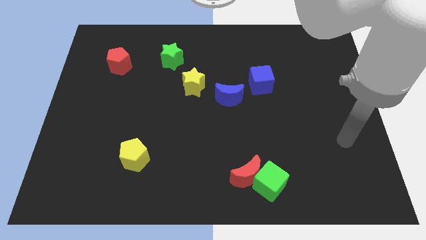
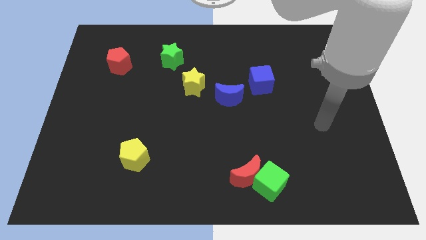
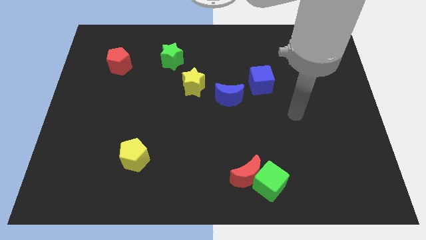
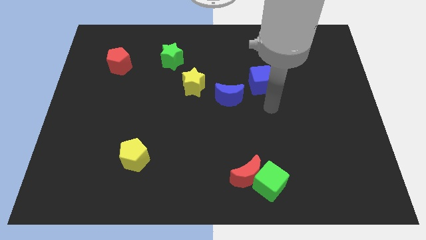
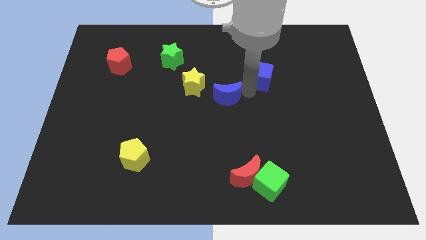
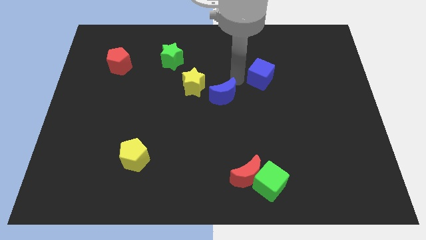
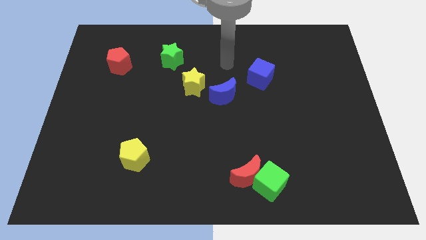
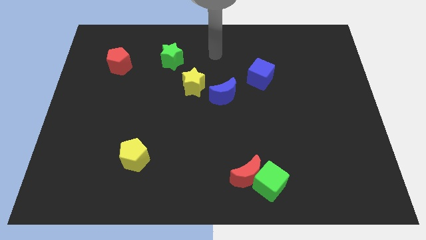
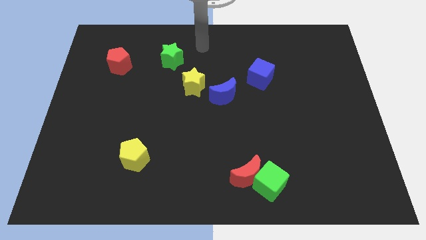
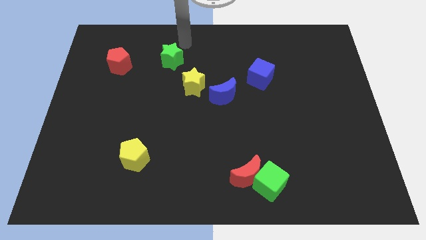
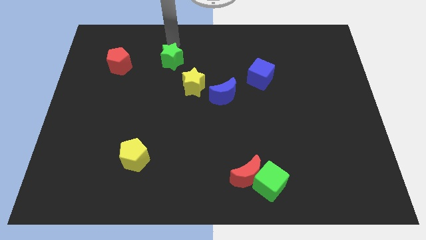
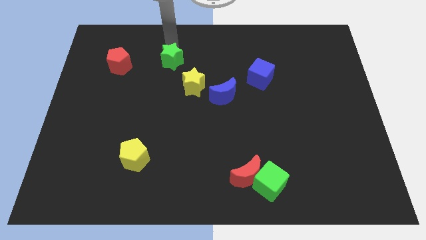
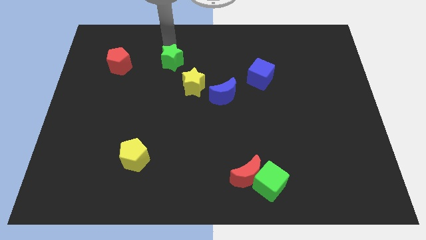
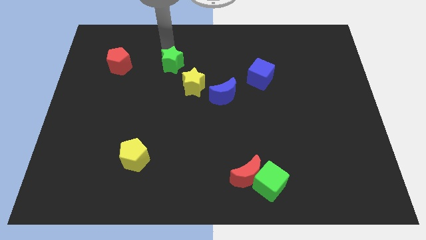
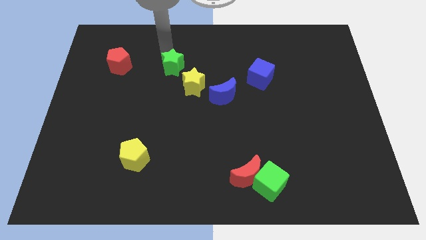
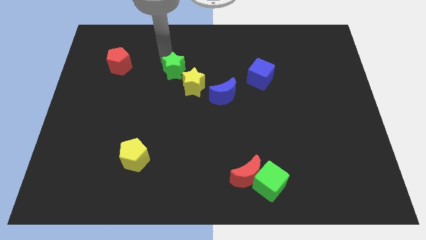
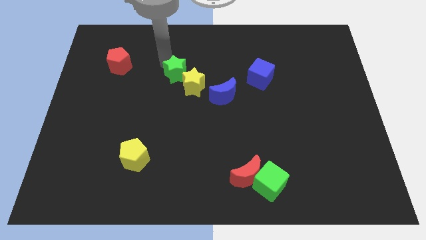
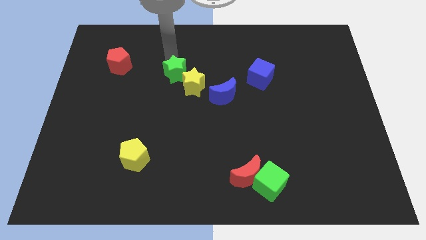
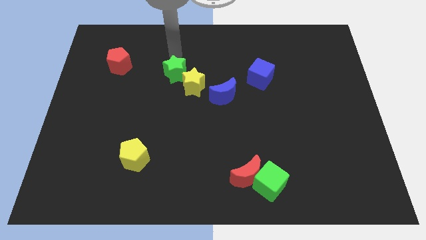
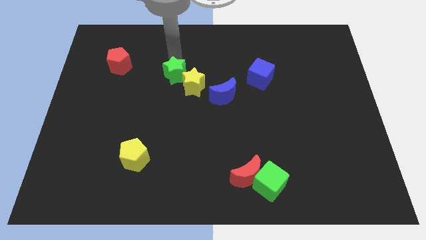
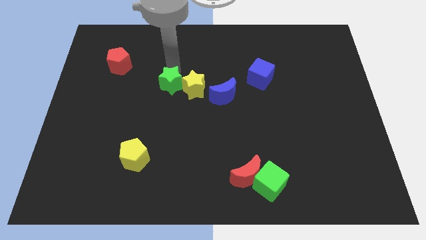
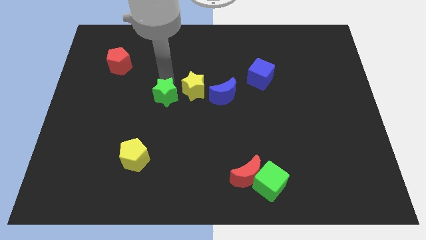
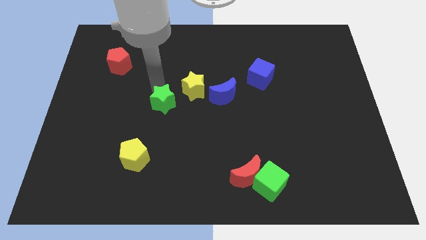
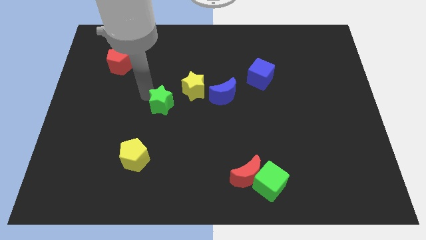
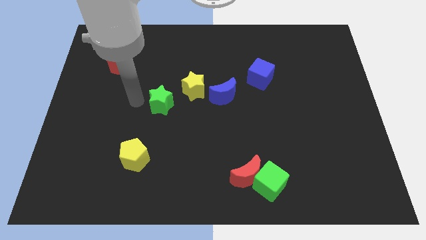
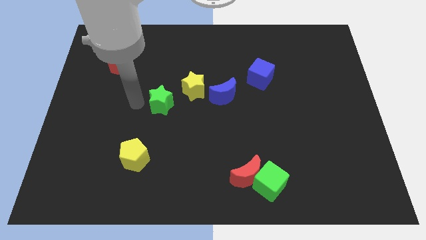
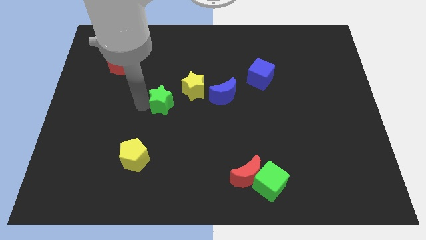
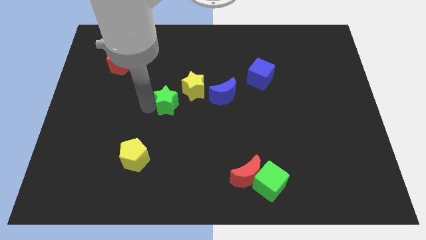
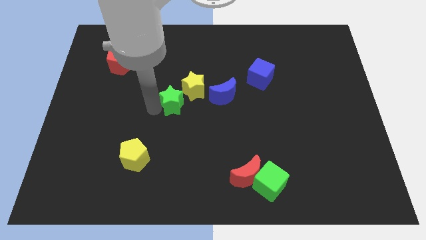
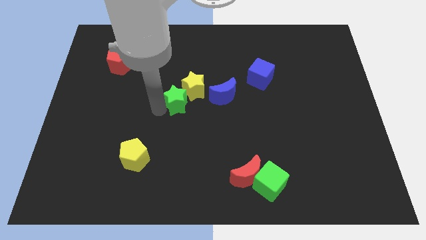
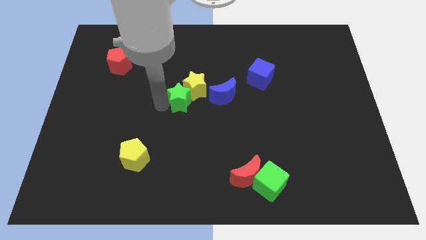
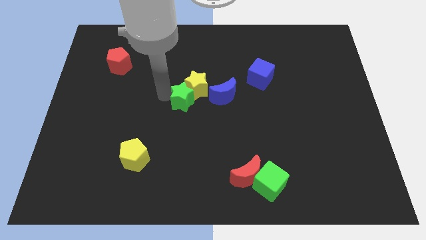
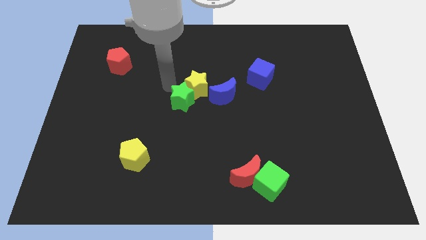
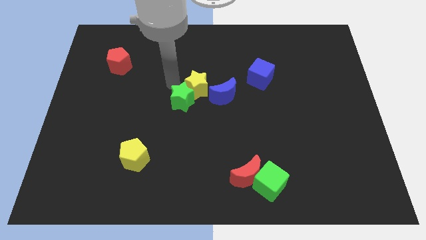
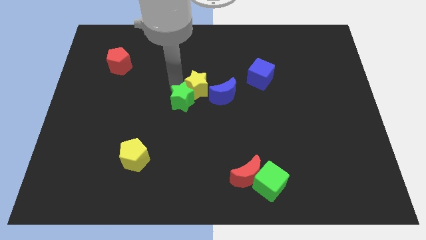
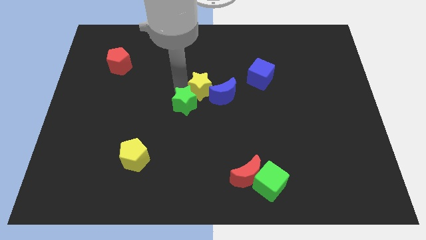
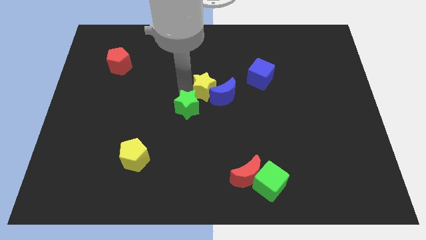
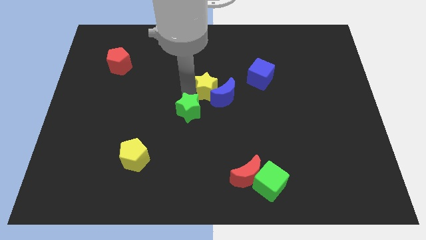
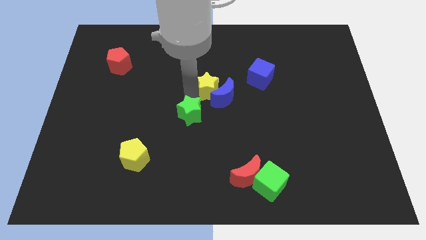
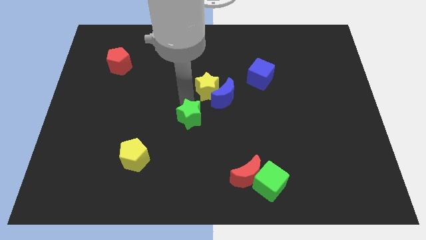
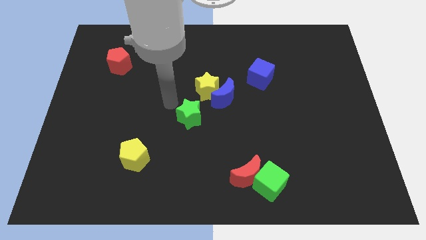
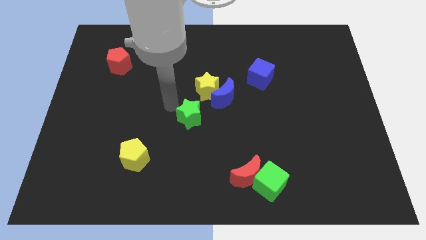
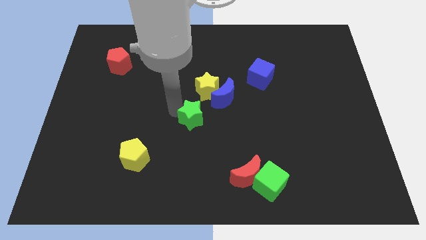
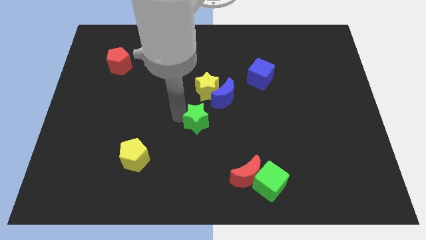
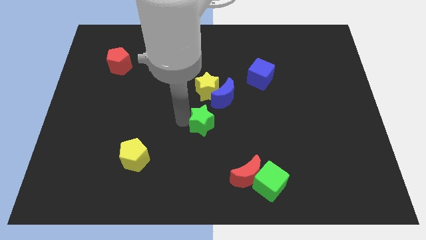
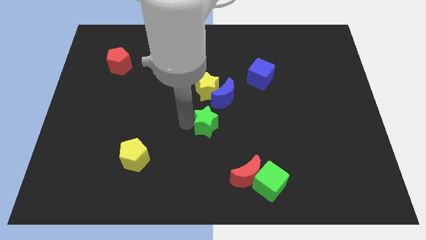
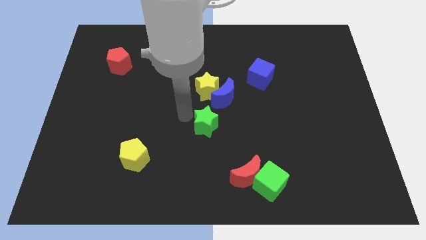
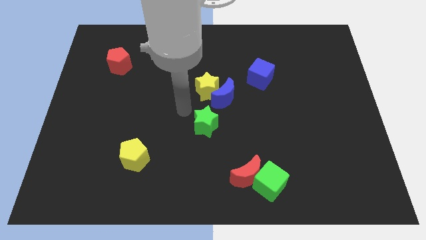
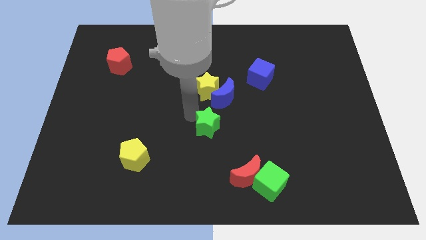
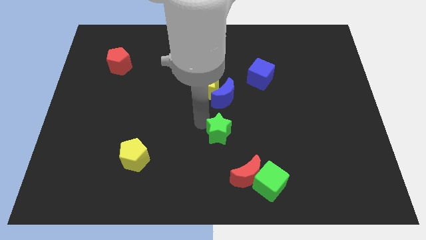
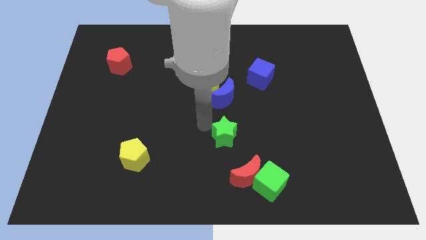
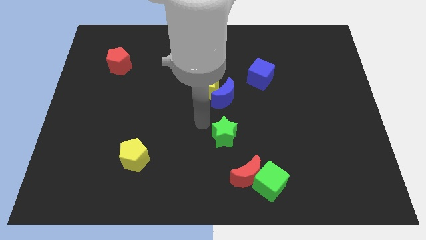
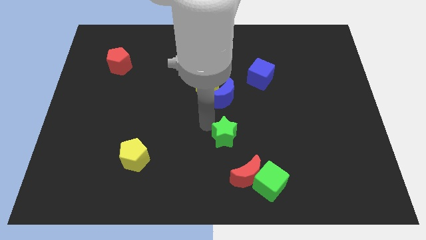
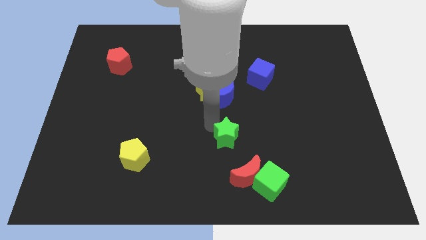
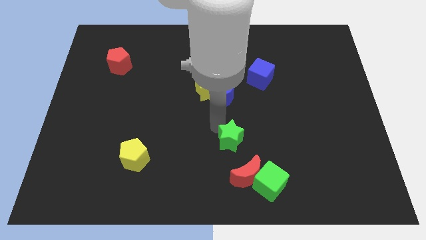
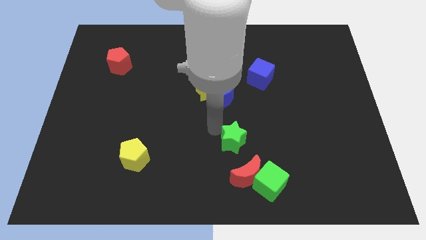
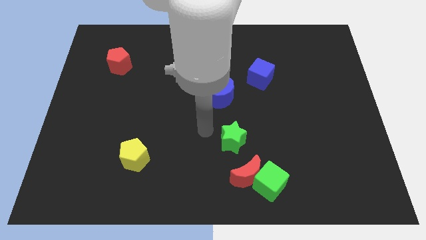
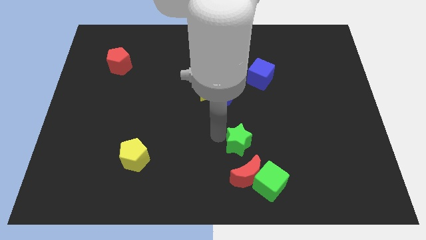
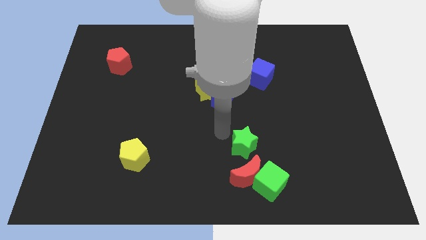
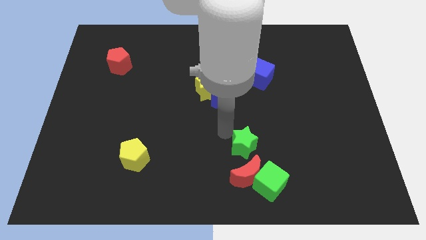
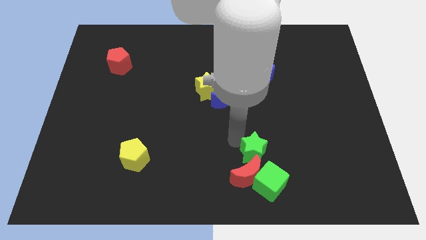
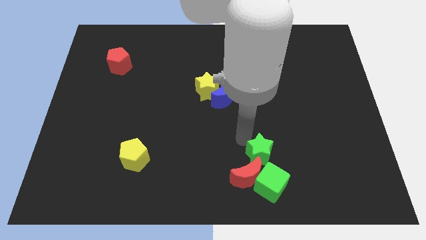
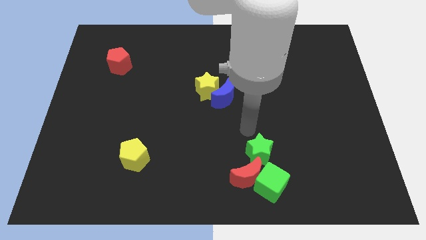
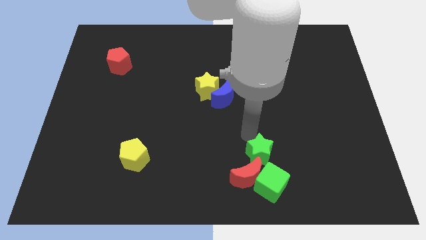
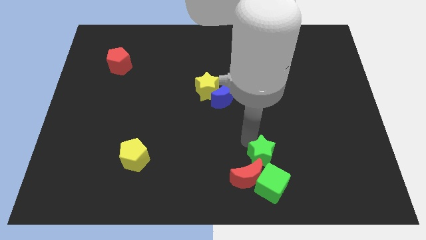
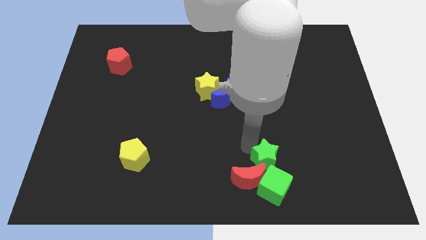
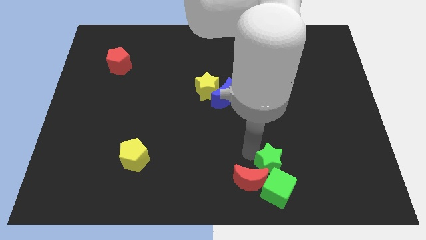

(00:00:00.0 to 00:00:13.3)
push the green star to the green cube

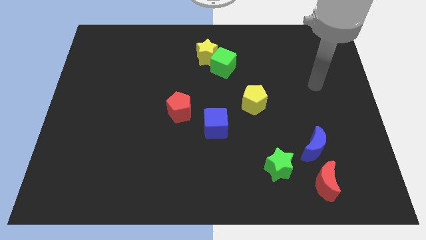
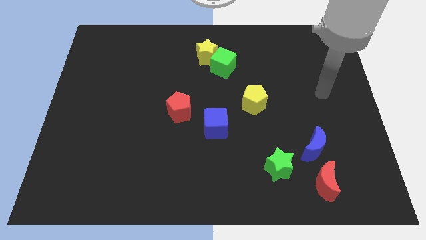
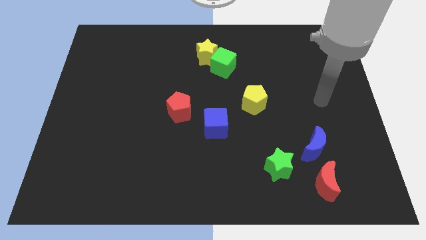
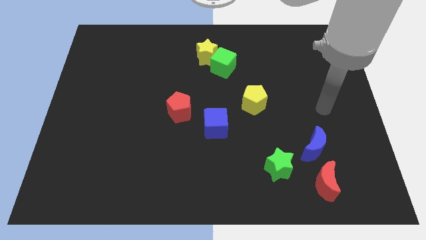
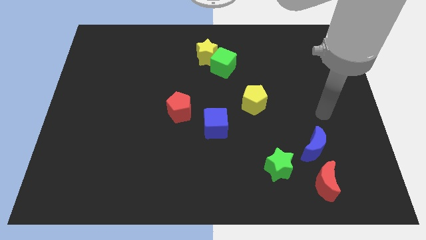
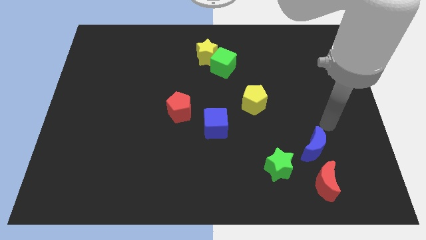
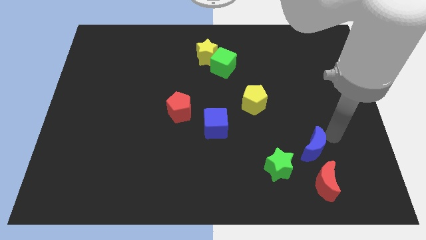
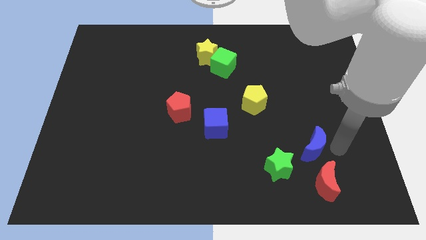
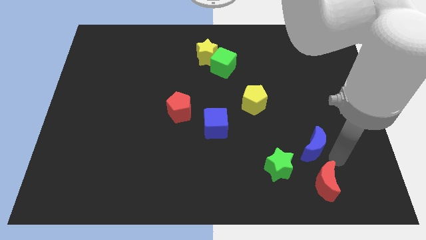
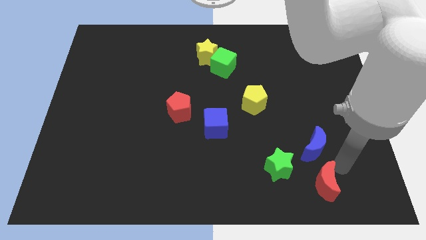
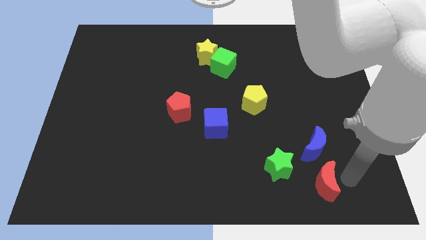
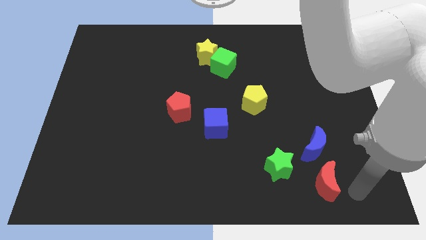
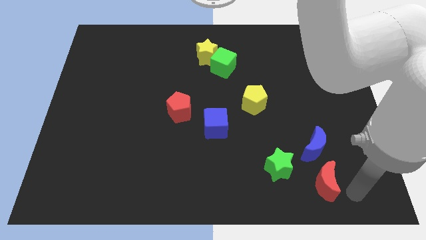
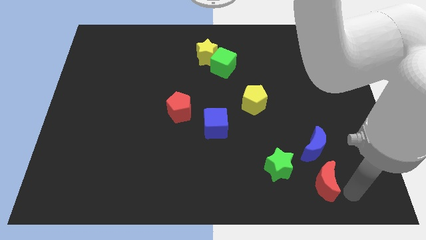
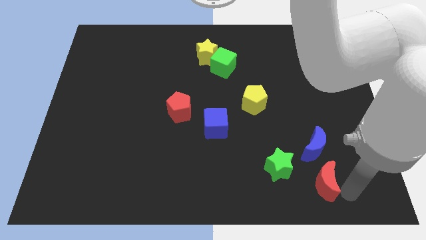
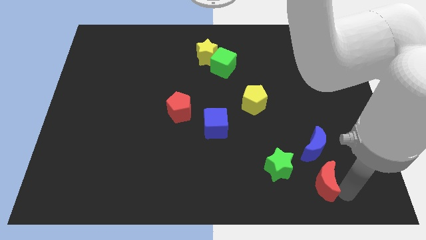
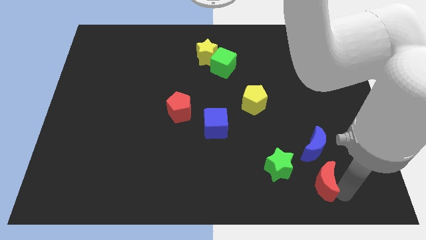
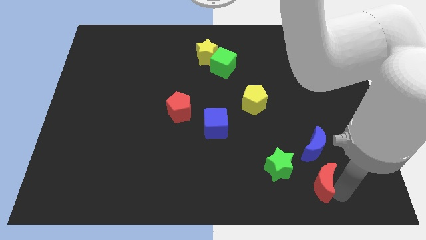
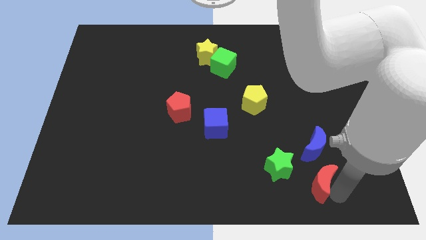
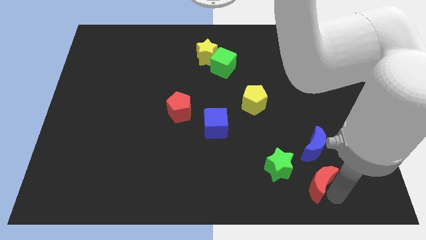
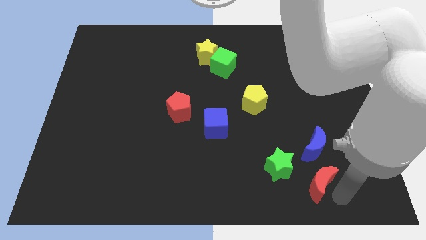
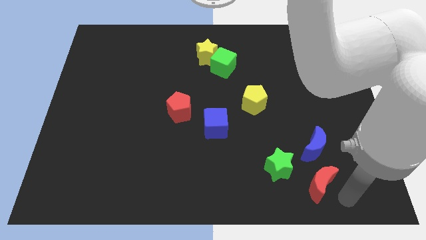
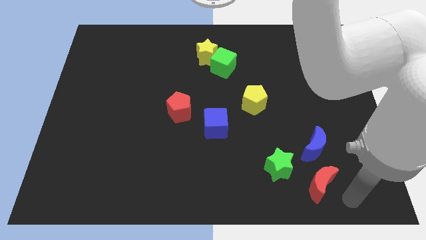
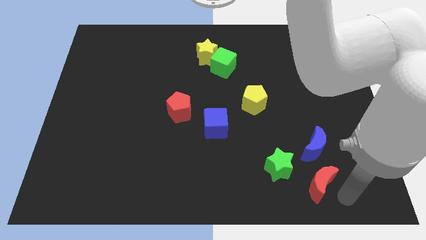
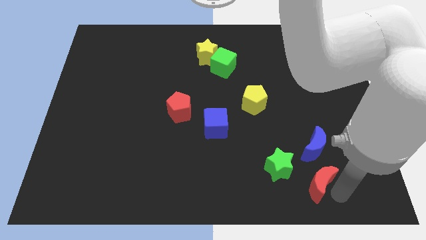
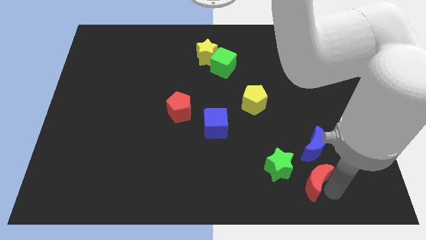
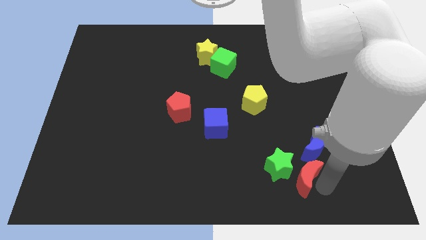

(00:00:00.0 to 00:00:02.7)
put the red moon to the green star
